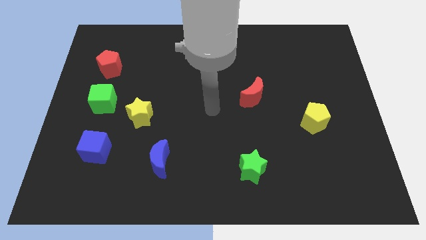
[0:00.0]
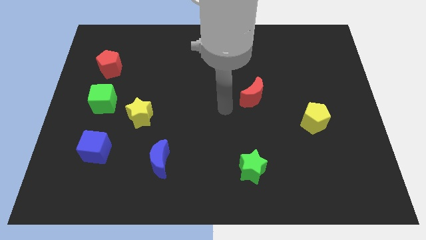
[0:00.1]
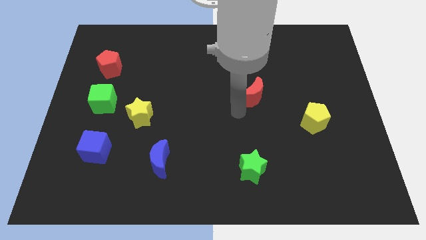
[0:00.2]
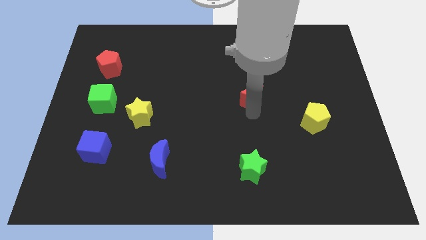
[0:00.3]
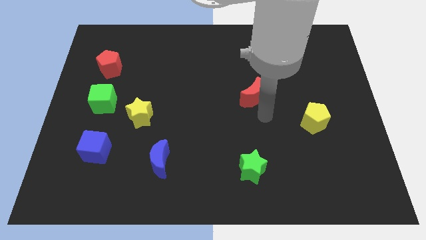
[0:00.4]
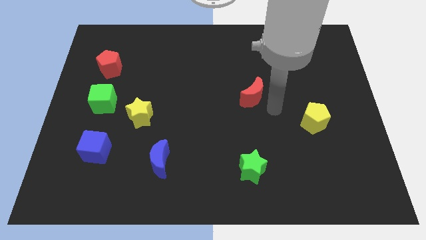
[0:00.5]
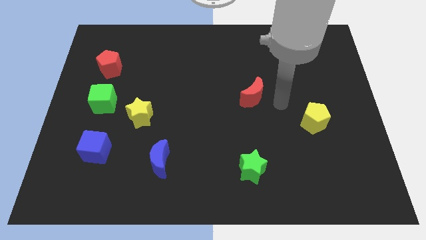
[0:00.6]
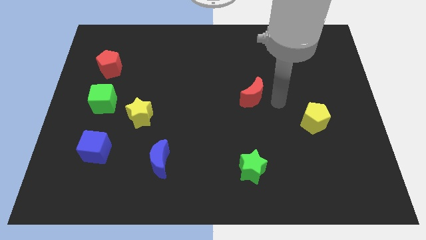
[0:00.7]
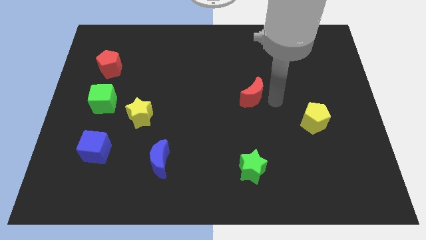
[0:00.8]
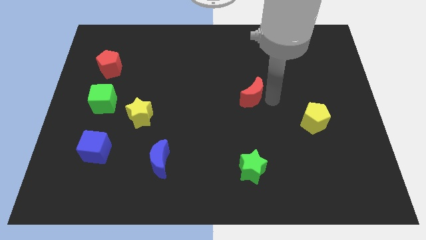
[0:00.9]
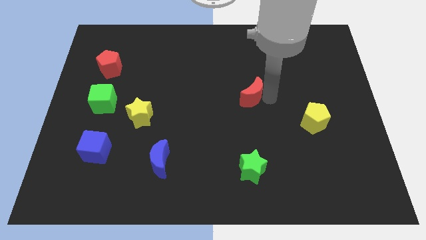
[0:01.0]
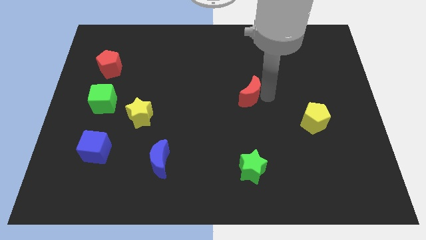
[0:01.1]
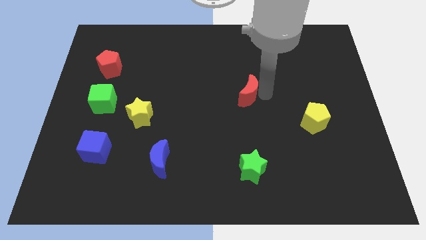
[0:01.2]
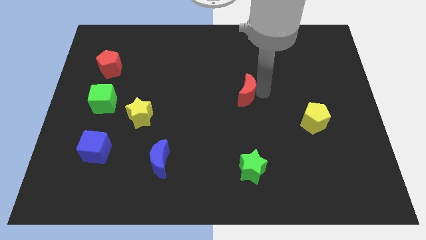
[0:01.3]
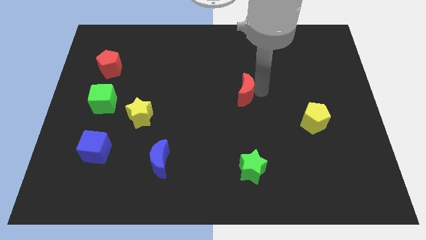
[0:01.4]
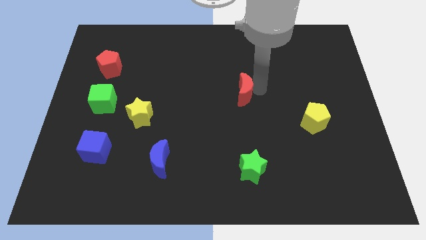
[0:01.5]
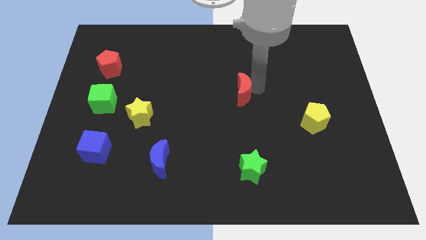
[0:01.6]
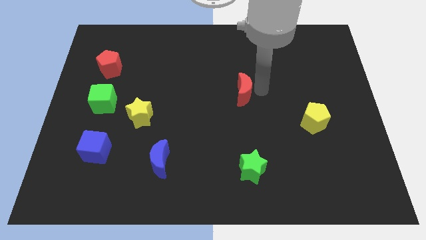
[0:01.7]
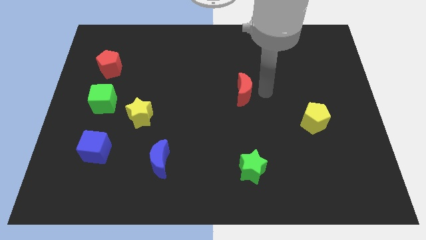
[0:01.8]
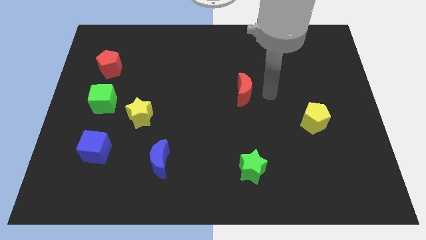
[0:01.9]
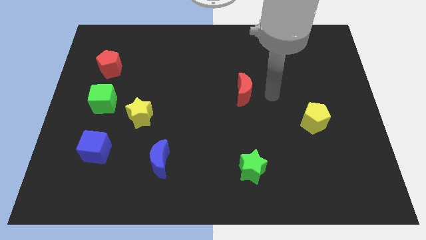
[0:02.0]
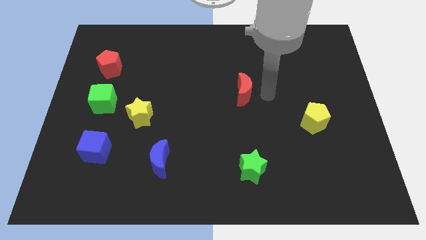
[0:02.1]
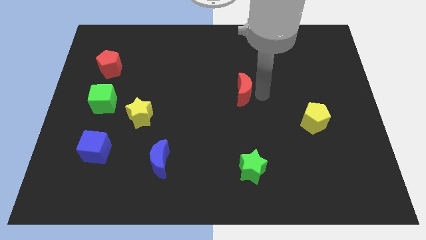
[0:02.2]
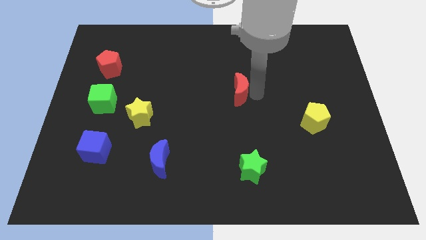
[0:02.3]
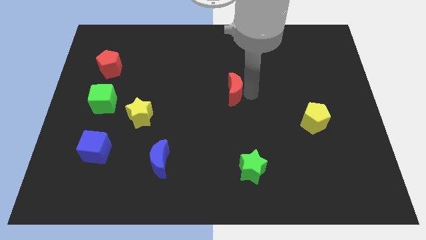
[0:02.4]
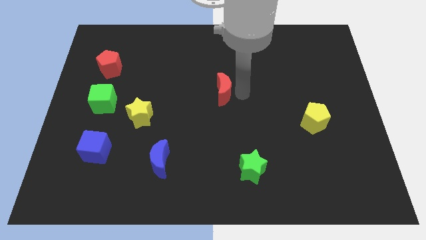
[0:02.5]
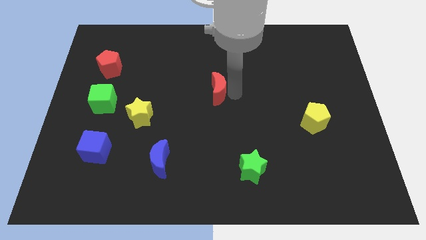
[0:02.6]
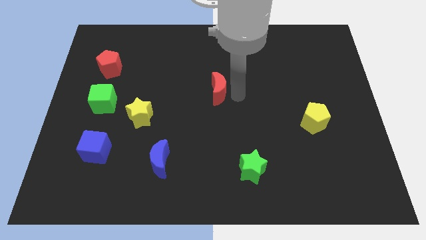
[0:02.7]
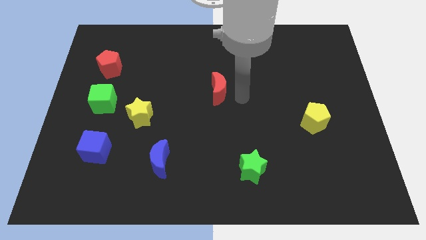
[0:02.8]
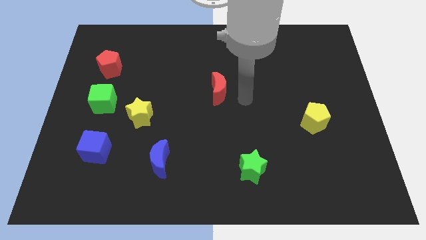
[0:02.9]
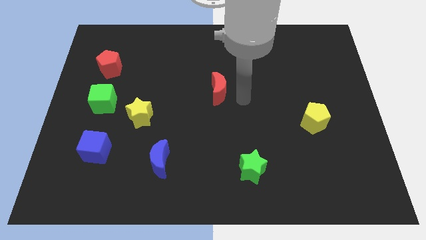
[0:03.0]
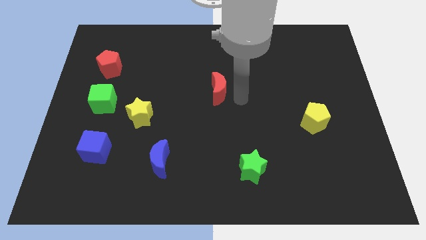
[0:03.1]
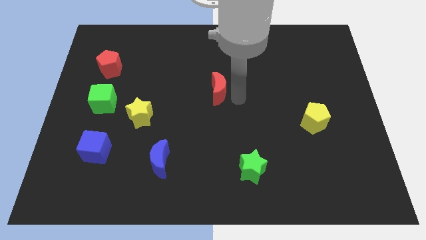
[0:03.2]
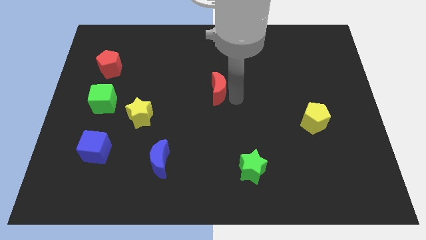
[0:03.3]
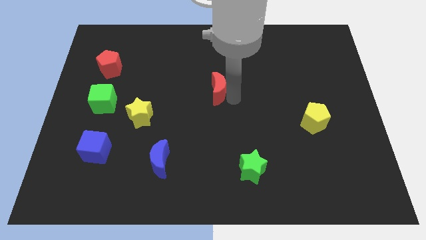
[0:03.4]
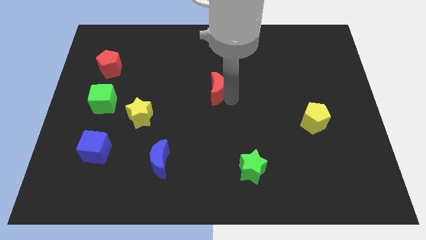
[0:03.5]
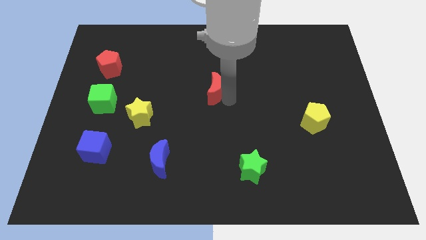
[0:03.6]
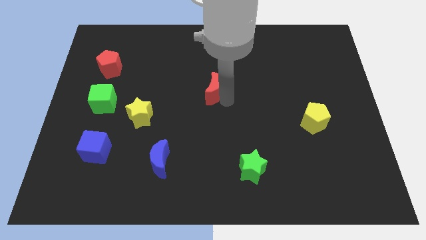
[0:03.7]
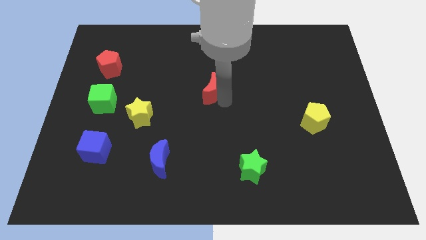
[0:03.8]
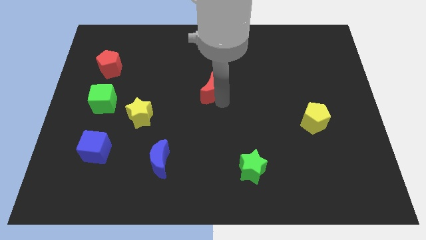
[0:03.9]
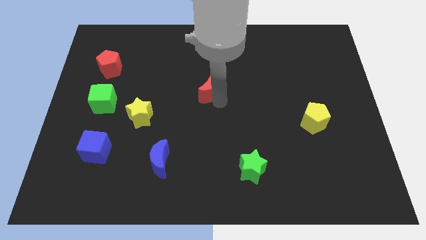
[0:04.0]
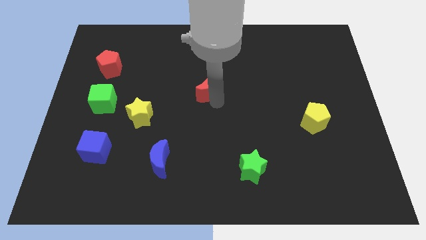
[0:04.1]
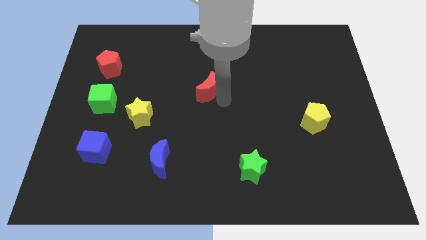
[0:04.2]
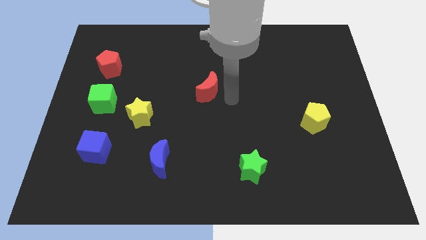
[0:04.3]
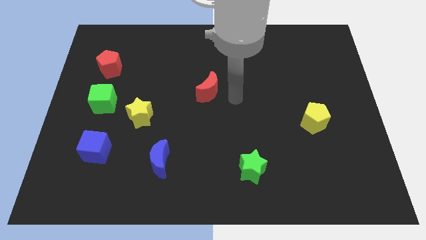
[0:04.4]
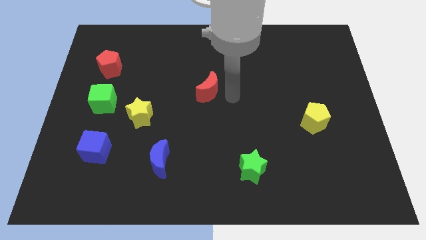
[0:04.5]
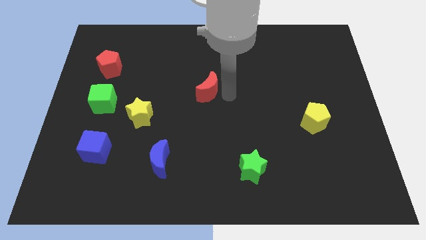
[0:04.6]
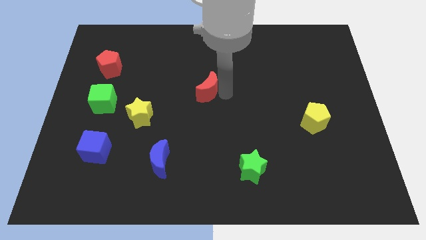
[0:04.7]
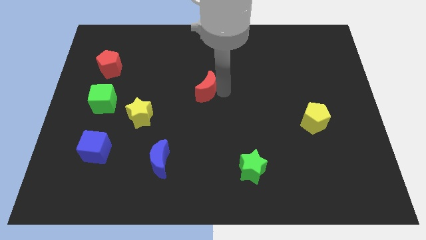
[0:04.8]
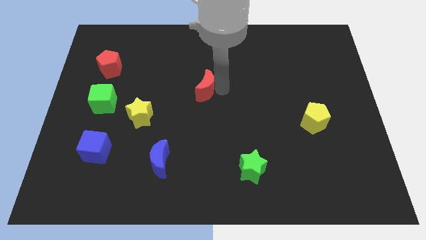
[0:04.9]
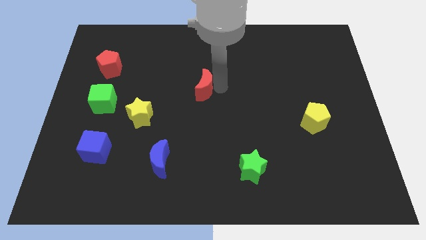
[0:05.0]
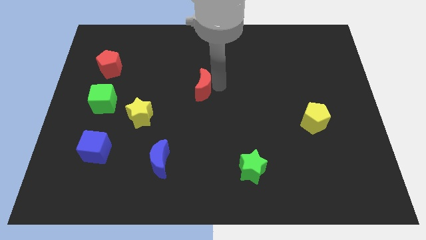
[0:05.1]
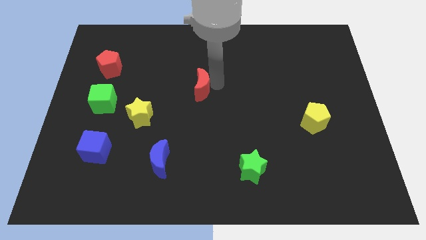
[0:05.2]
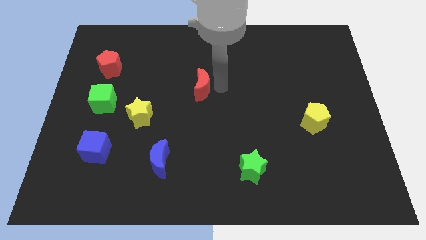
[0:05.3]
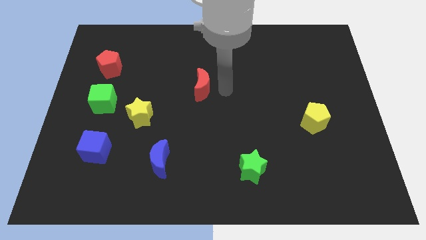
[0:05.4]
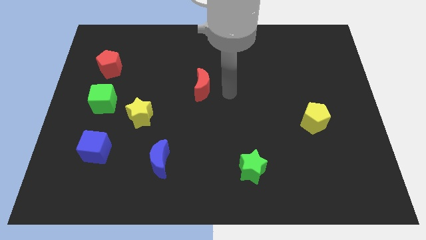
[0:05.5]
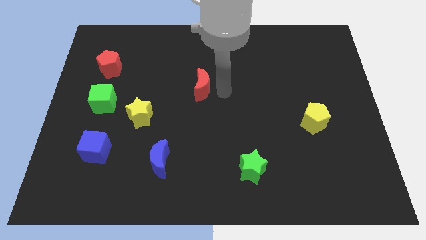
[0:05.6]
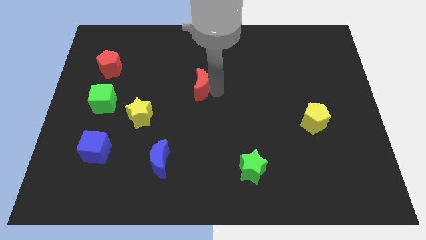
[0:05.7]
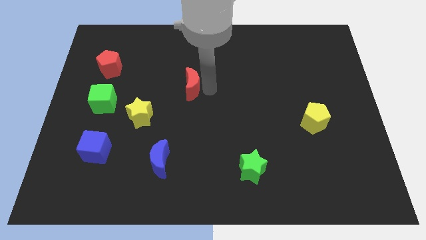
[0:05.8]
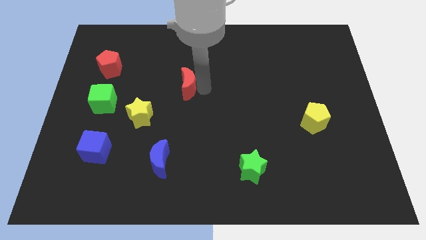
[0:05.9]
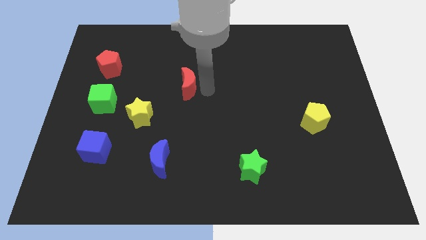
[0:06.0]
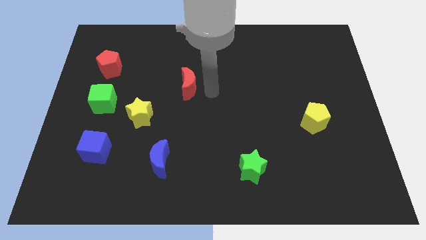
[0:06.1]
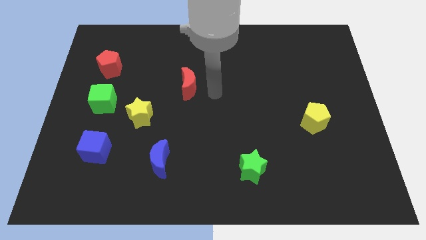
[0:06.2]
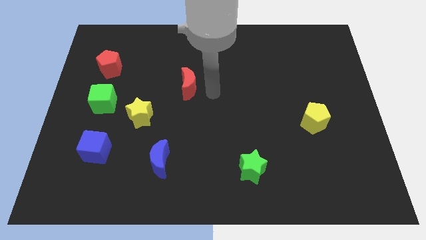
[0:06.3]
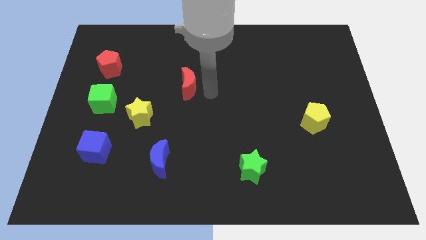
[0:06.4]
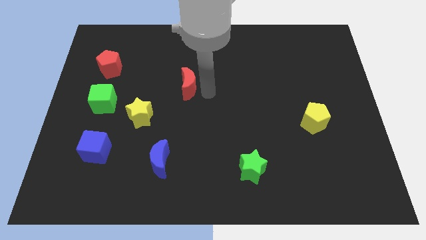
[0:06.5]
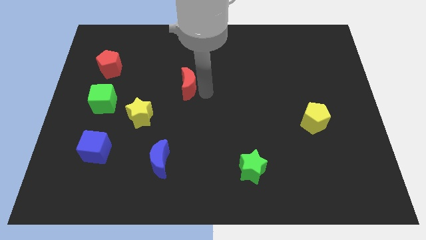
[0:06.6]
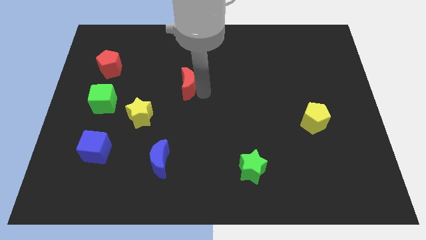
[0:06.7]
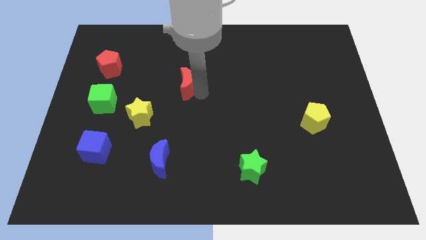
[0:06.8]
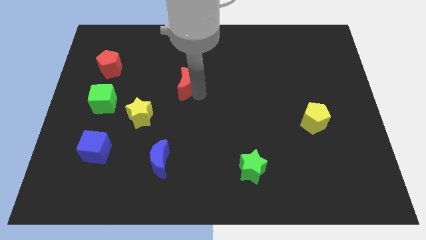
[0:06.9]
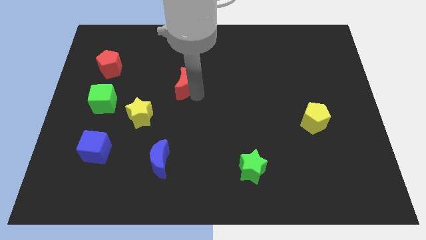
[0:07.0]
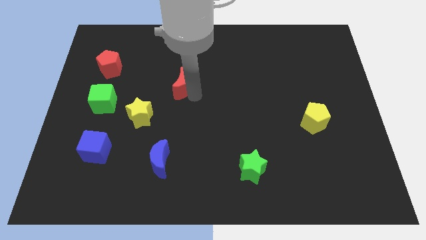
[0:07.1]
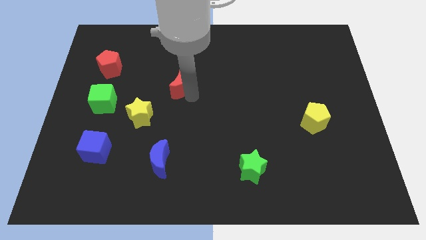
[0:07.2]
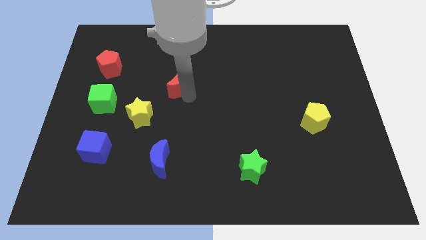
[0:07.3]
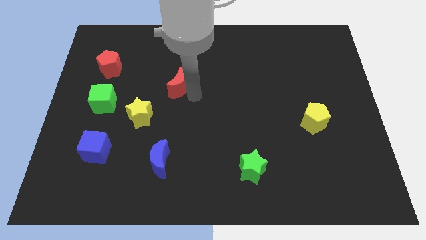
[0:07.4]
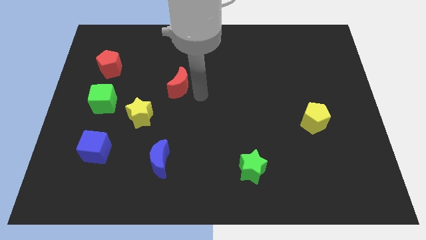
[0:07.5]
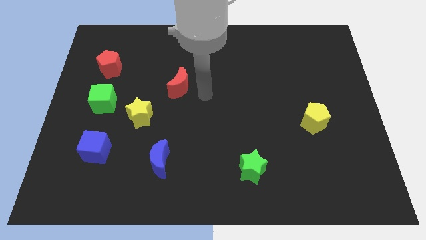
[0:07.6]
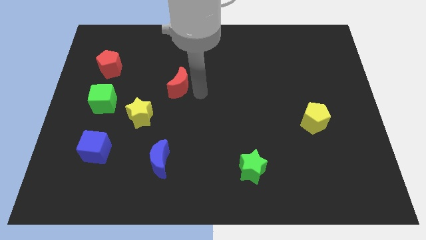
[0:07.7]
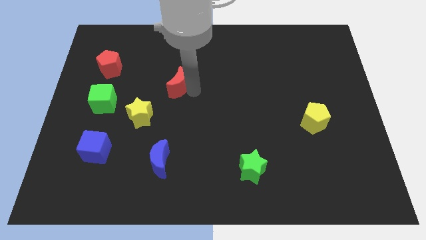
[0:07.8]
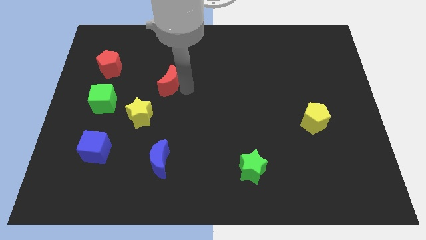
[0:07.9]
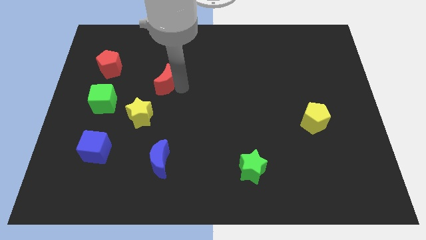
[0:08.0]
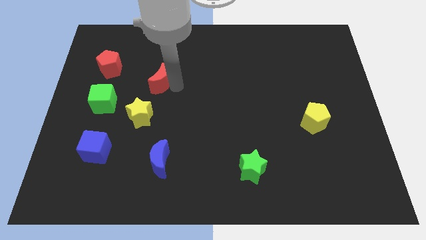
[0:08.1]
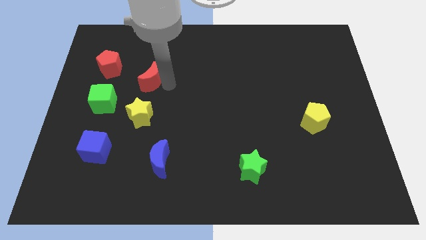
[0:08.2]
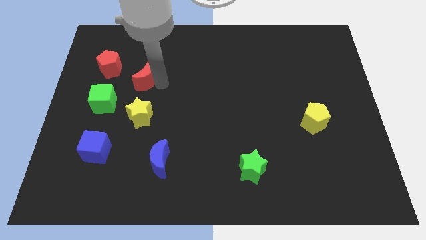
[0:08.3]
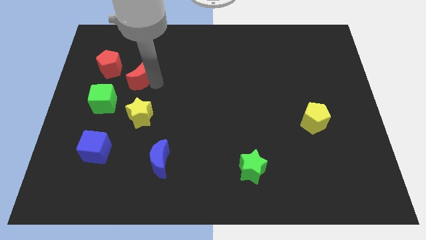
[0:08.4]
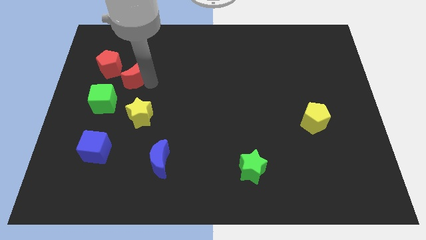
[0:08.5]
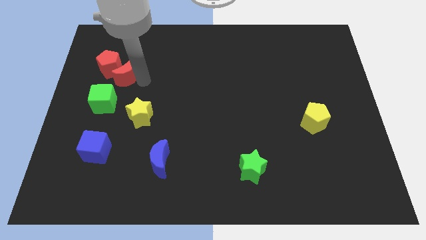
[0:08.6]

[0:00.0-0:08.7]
slide the red moon to the red pentagon
